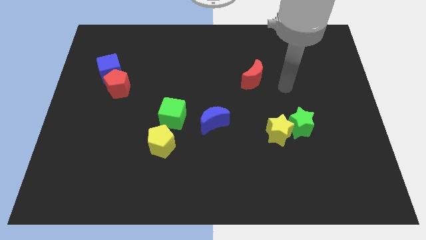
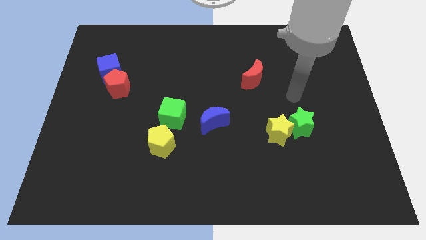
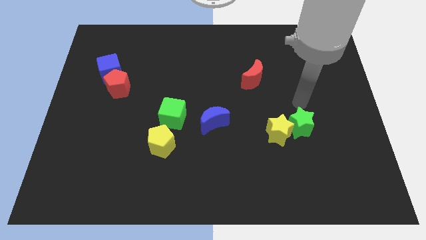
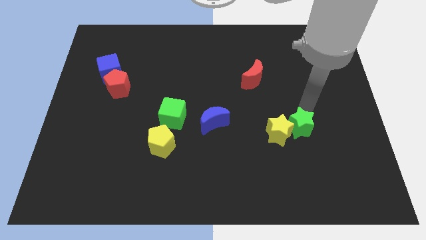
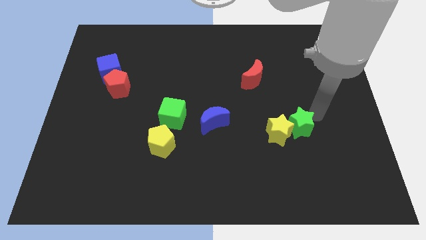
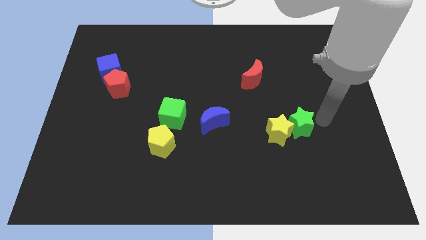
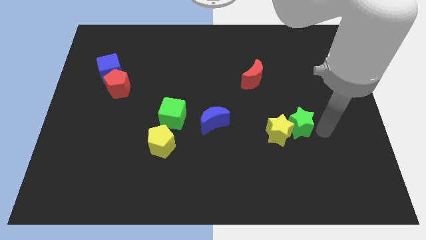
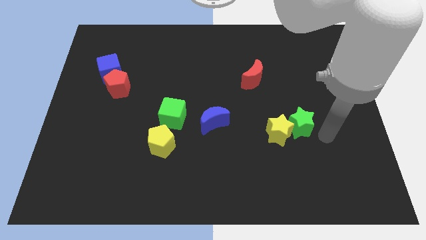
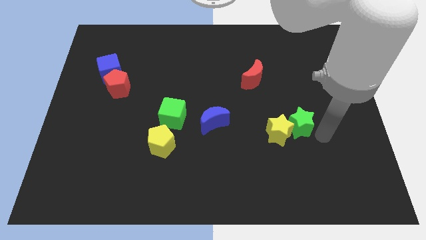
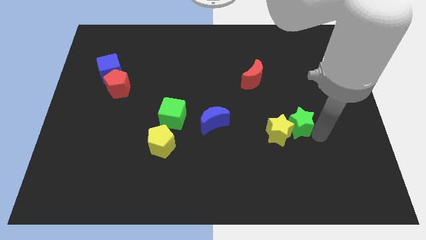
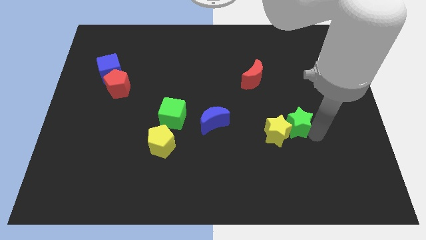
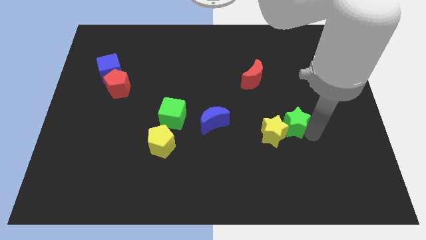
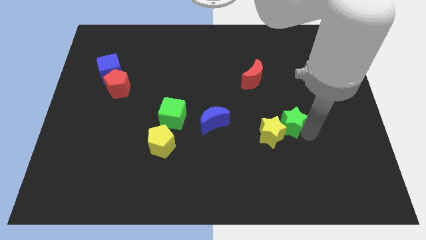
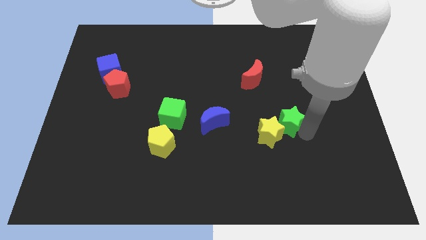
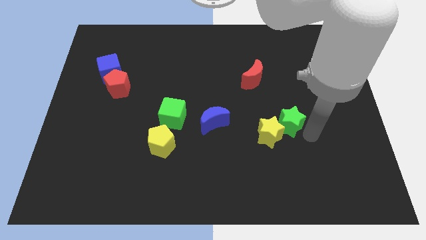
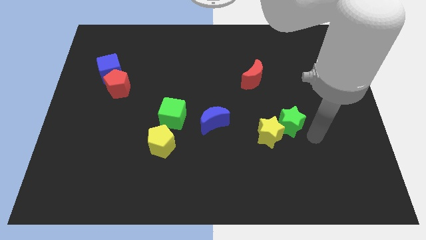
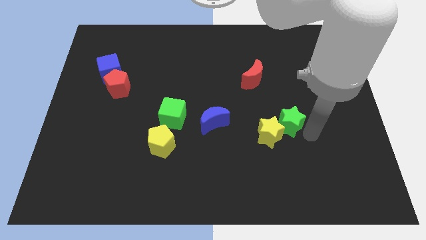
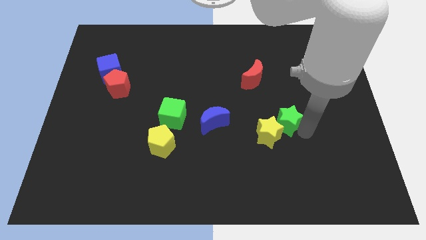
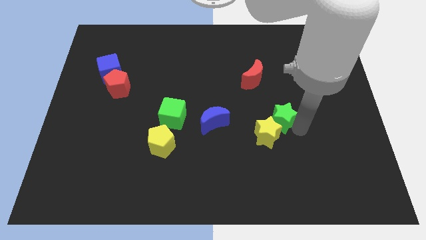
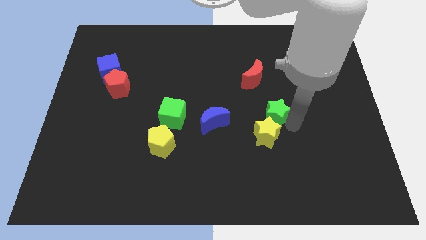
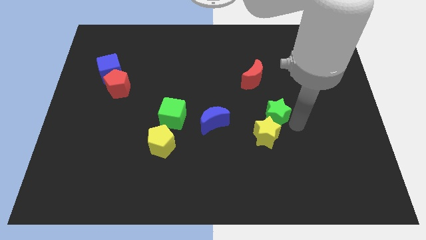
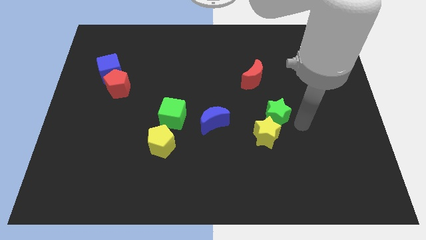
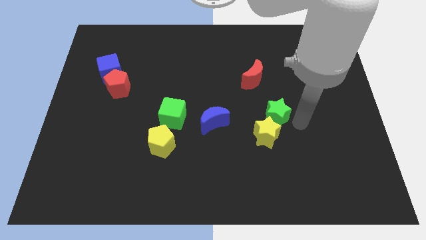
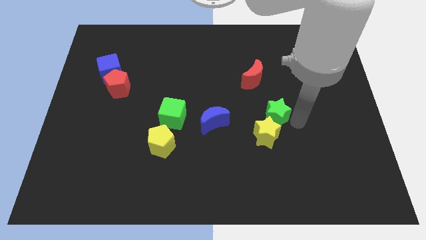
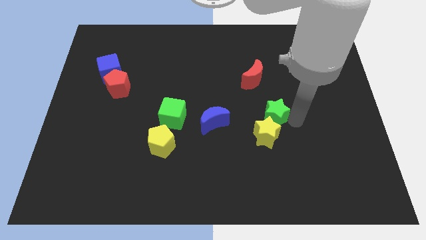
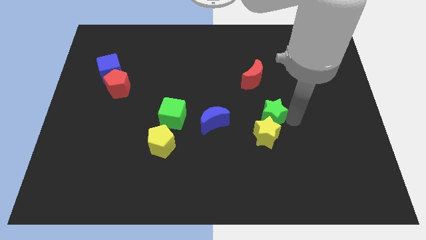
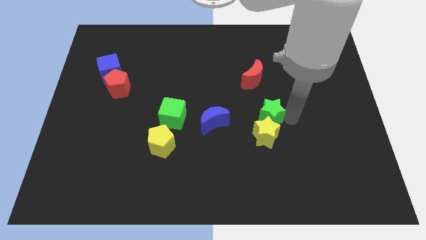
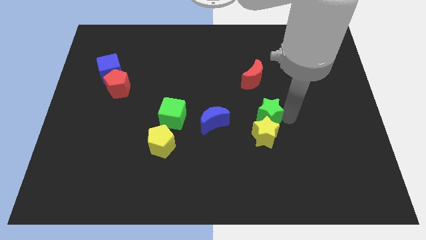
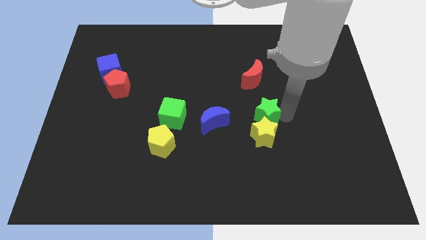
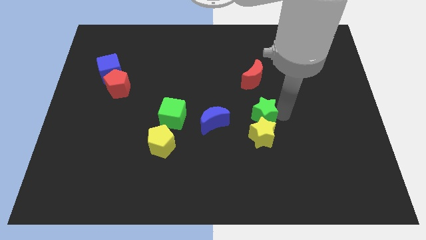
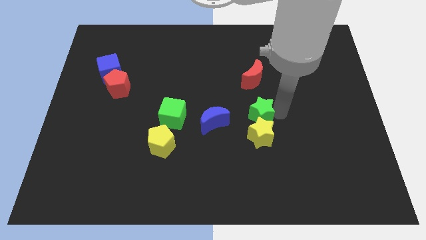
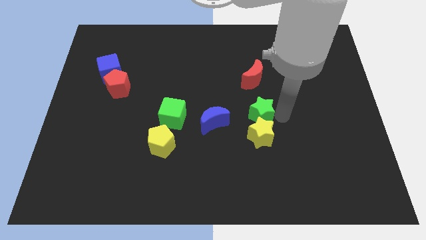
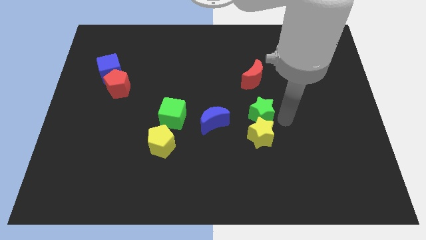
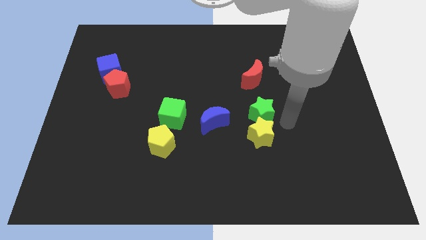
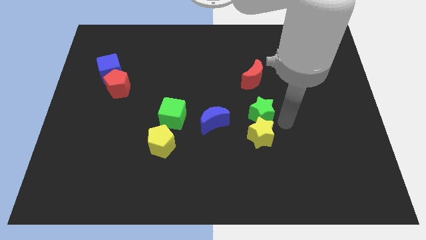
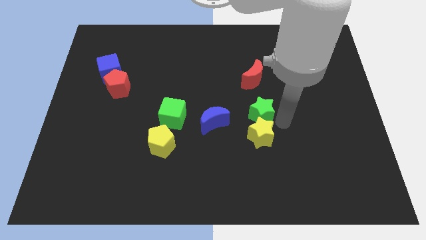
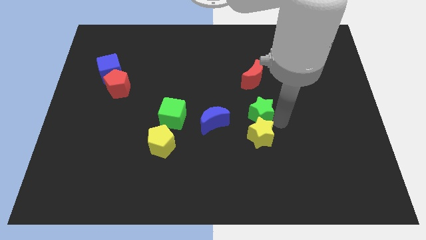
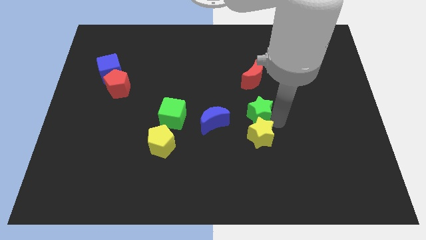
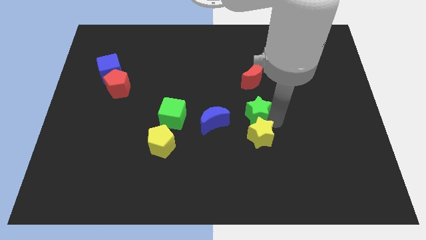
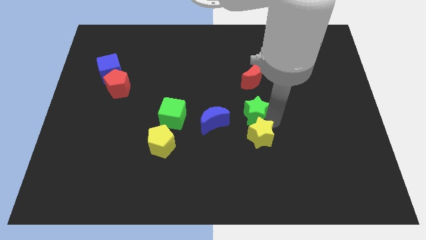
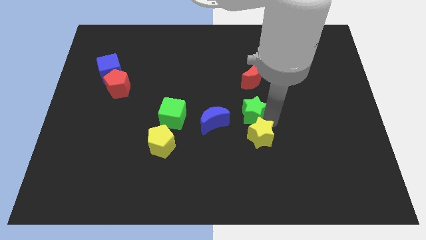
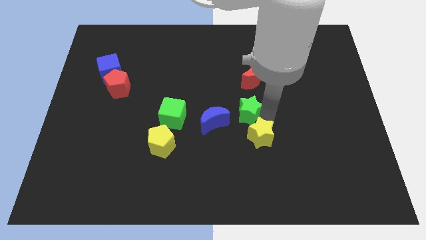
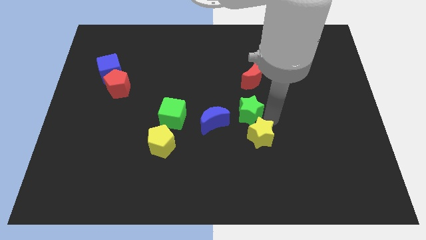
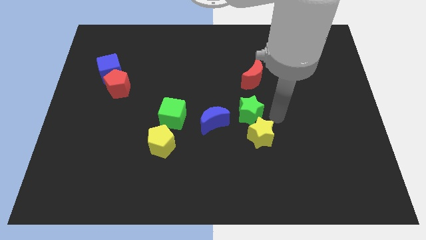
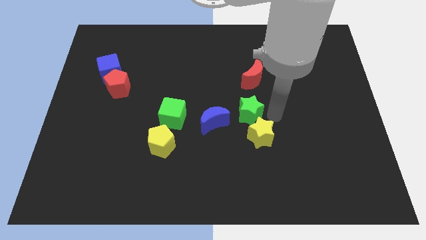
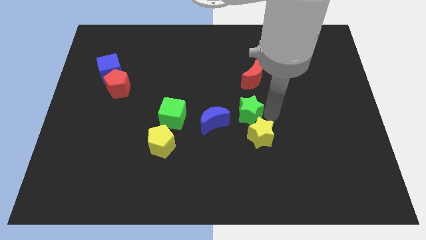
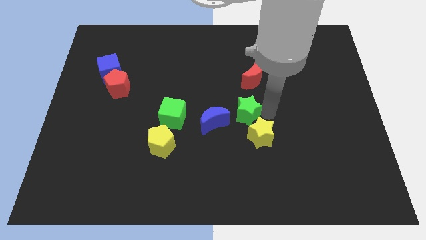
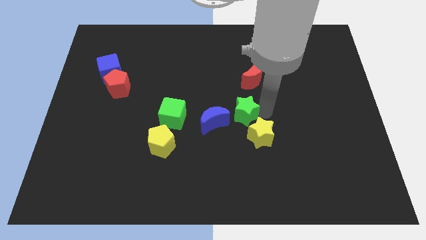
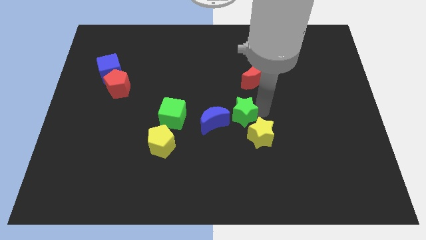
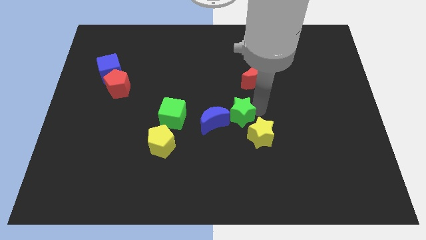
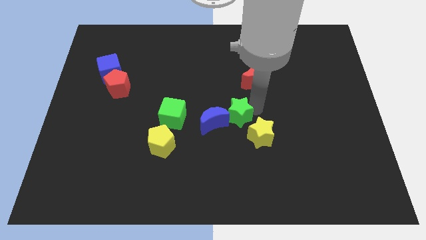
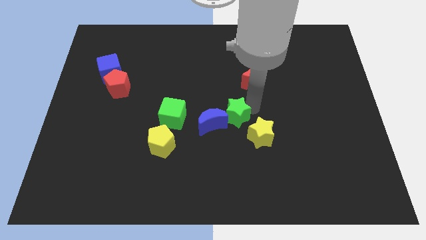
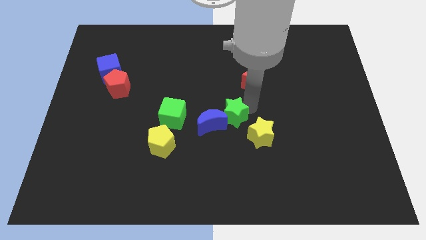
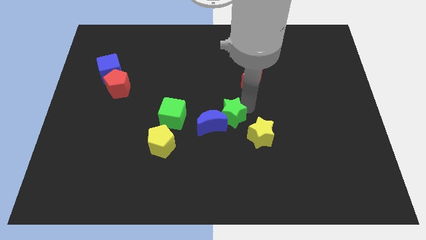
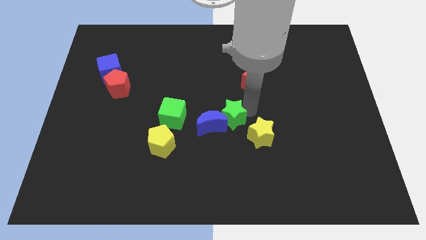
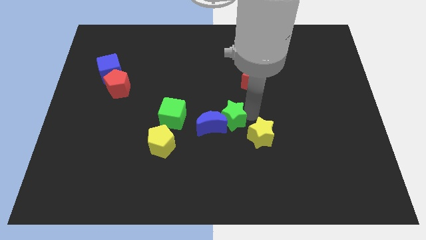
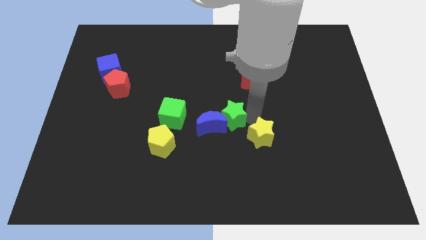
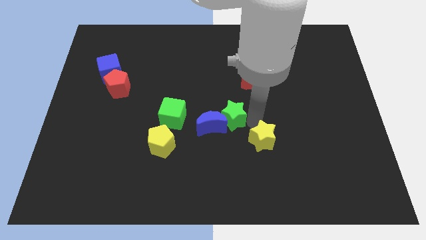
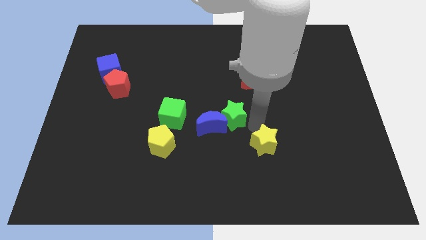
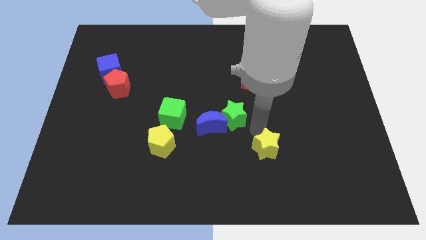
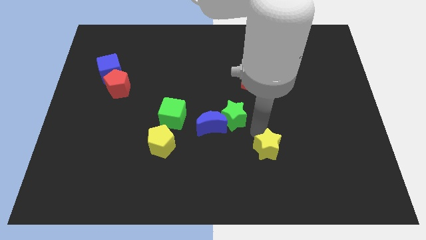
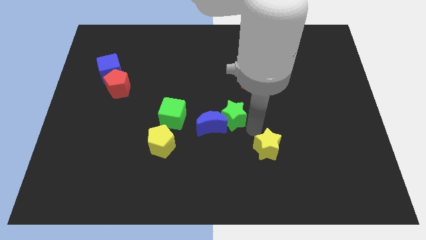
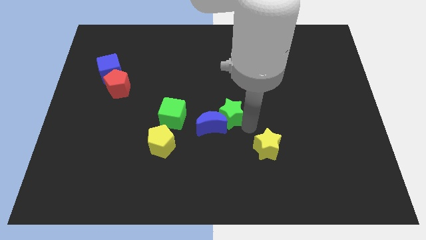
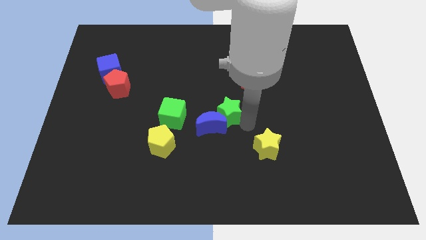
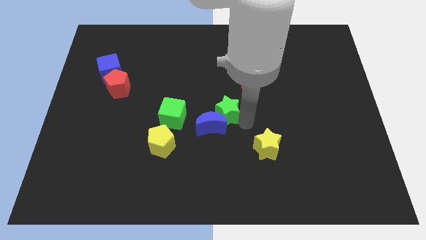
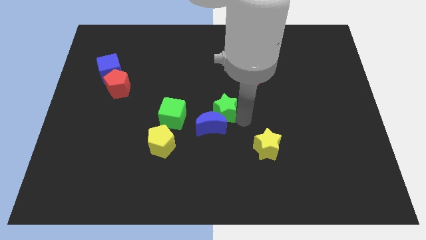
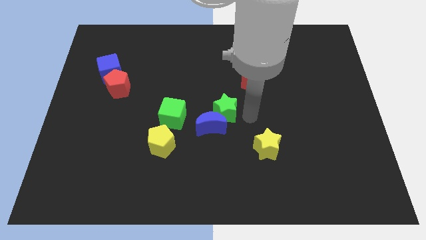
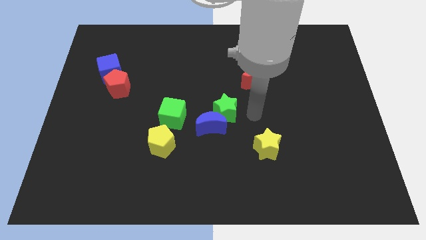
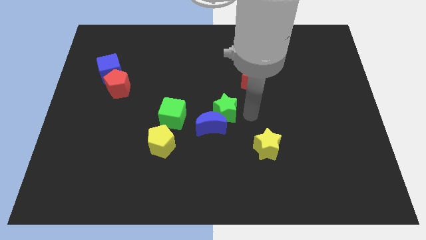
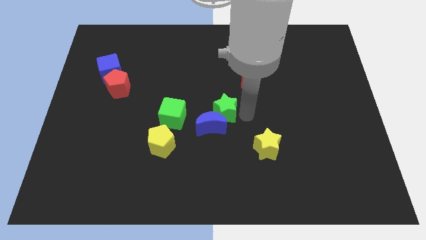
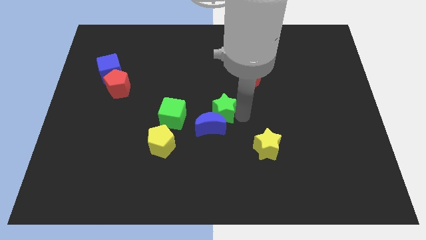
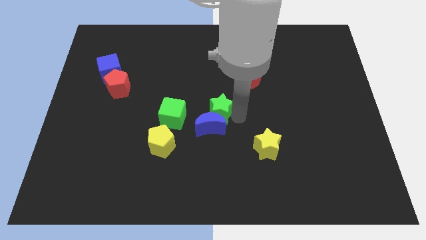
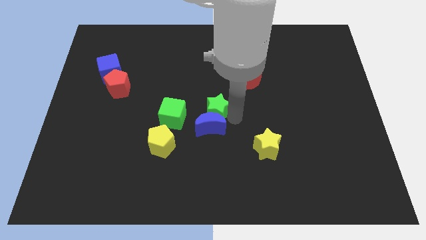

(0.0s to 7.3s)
put the green star to the top left of the blue moon
